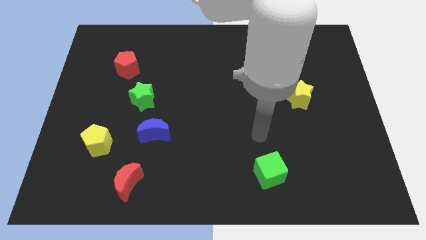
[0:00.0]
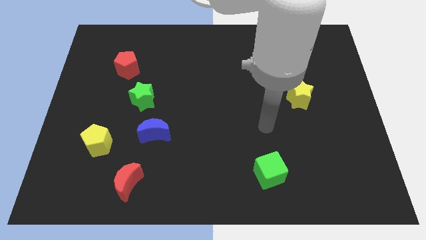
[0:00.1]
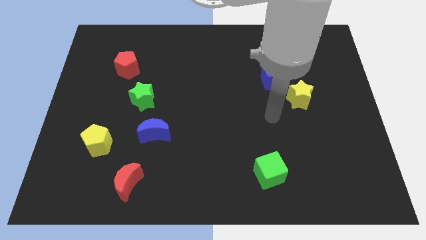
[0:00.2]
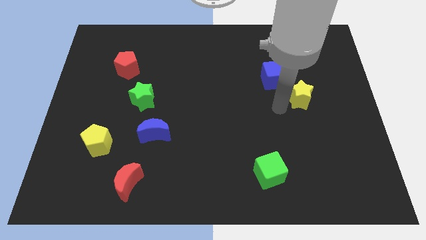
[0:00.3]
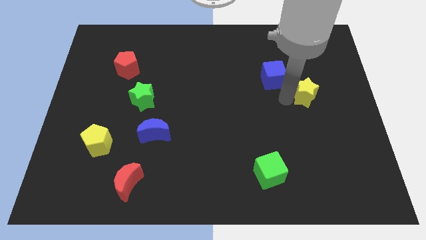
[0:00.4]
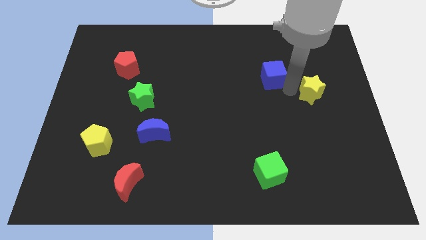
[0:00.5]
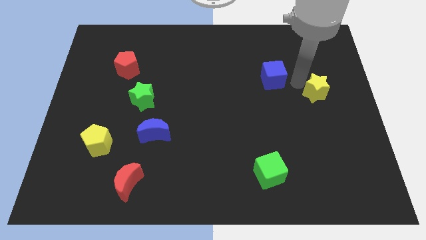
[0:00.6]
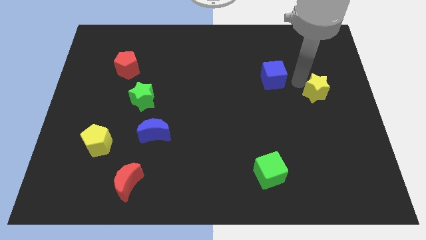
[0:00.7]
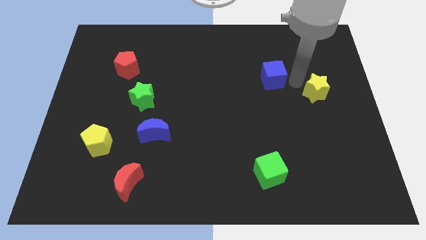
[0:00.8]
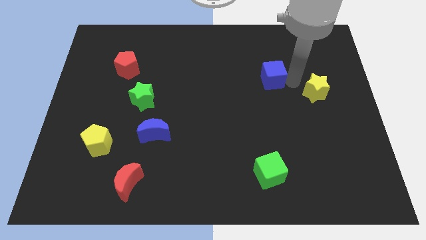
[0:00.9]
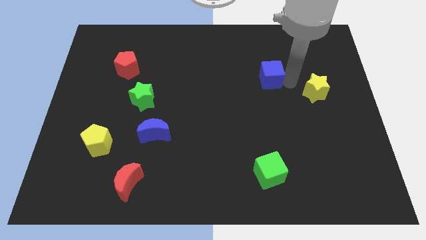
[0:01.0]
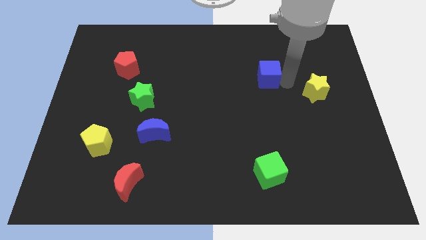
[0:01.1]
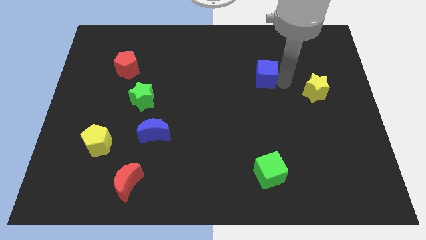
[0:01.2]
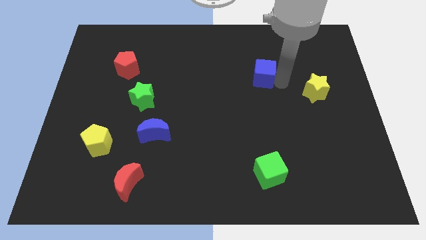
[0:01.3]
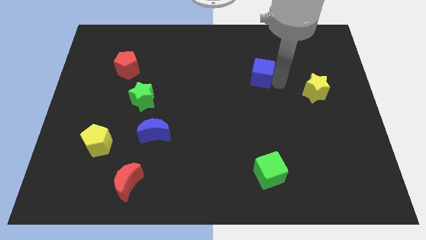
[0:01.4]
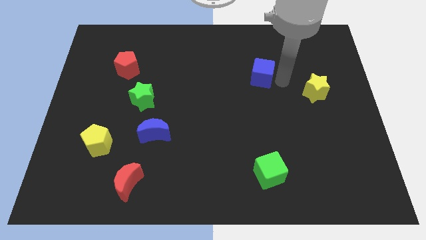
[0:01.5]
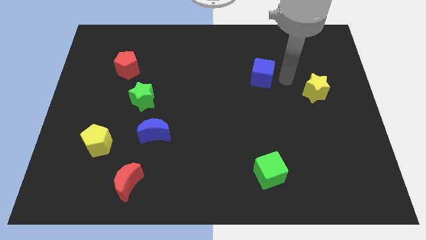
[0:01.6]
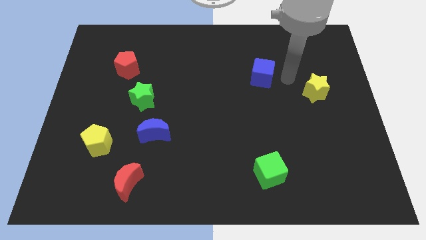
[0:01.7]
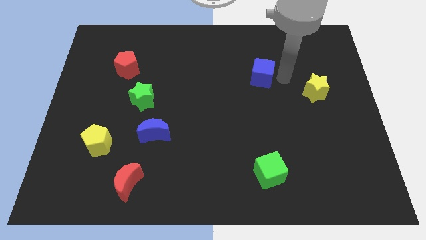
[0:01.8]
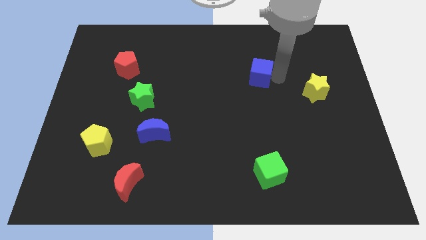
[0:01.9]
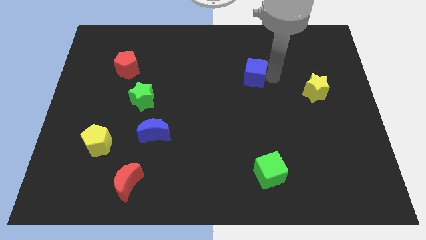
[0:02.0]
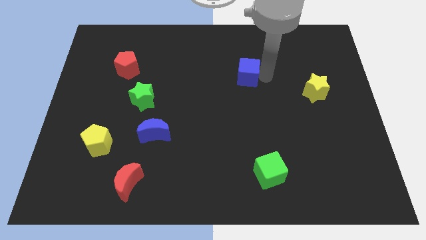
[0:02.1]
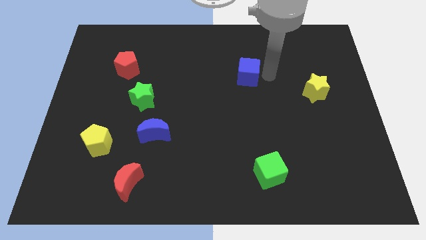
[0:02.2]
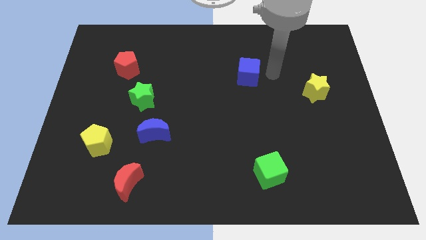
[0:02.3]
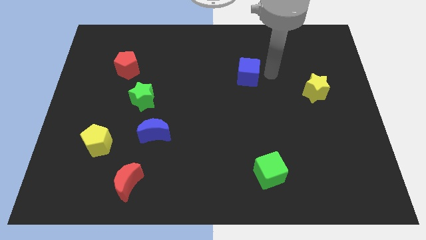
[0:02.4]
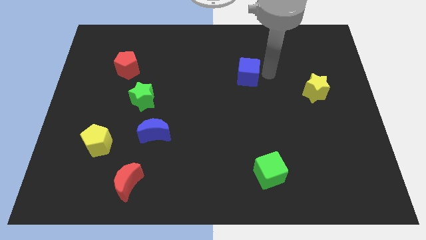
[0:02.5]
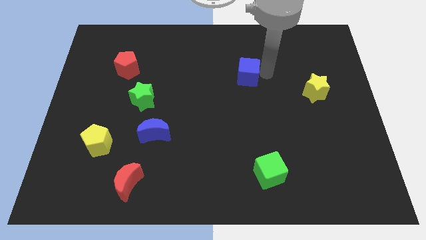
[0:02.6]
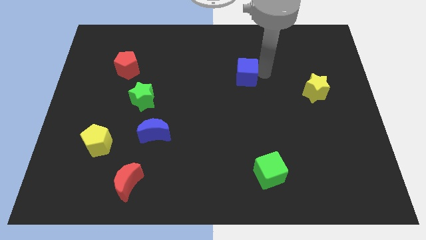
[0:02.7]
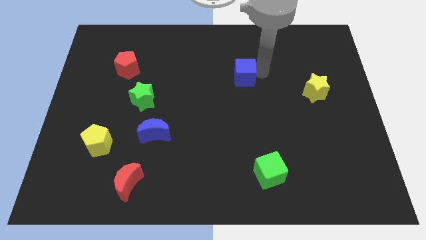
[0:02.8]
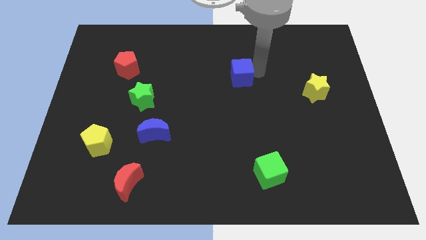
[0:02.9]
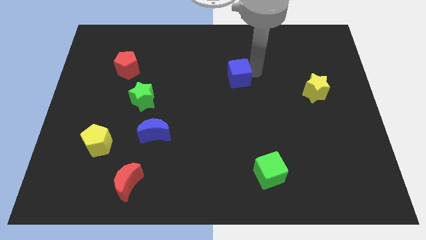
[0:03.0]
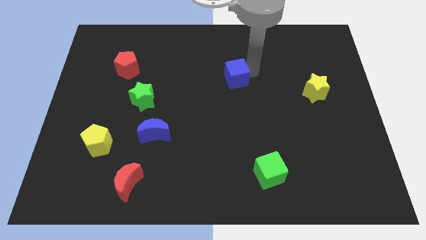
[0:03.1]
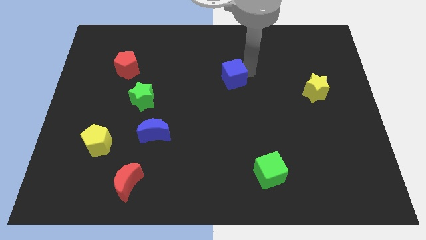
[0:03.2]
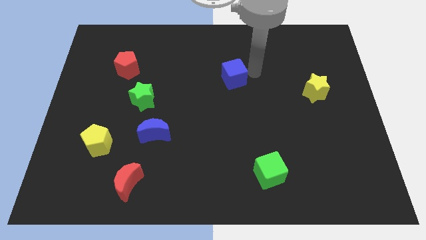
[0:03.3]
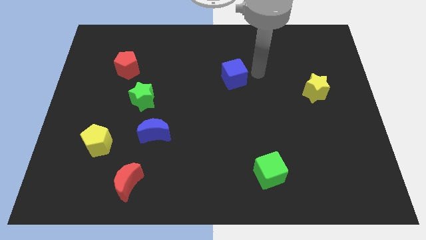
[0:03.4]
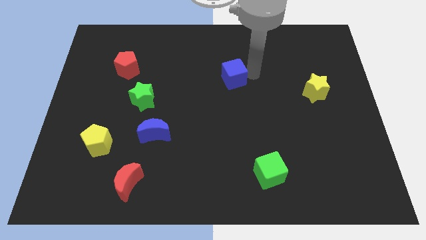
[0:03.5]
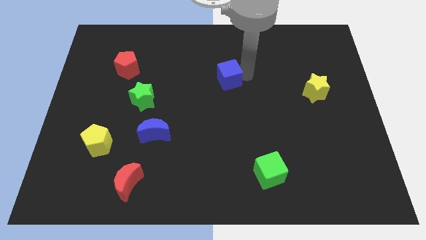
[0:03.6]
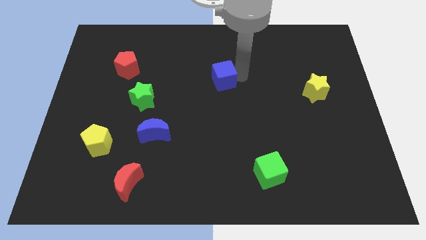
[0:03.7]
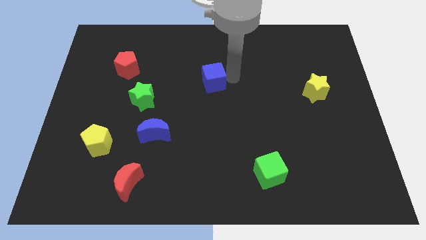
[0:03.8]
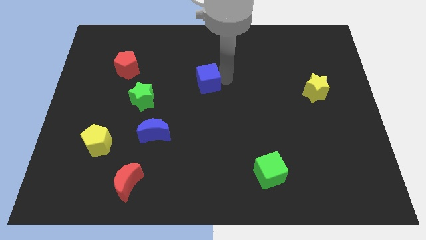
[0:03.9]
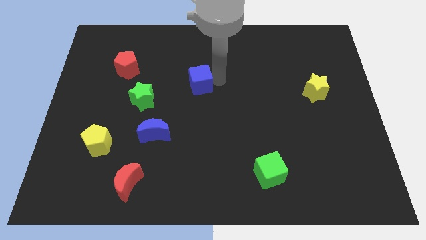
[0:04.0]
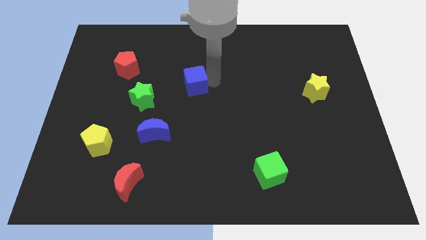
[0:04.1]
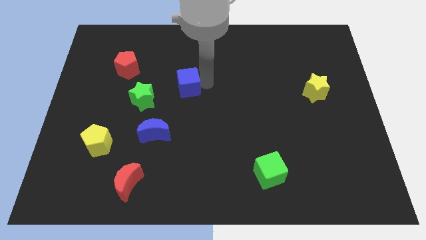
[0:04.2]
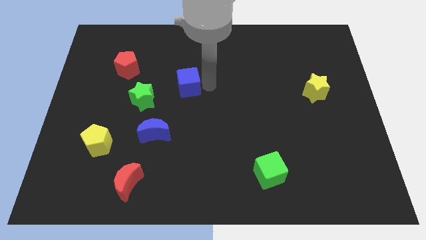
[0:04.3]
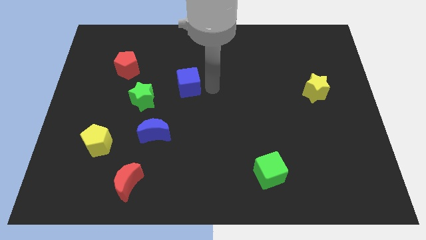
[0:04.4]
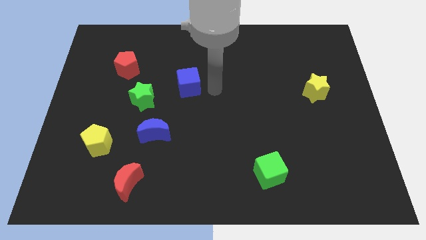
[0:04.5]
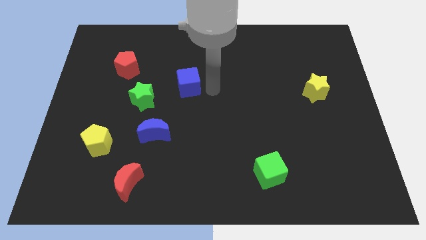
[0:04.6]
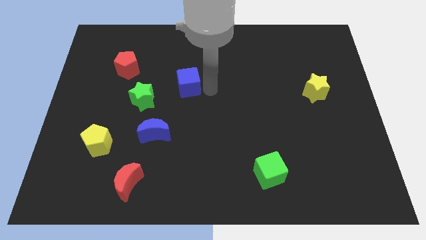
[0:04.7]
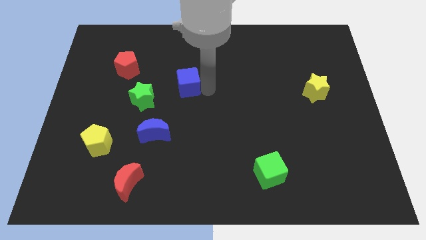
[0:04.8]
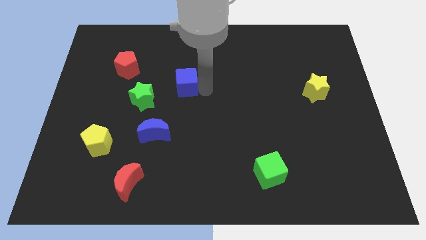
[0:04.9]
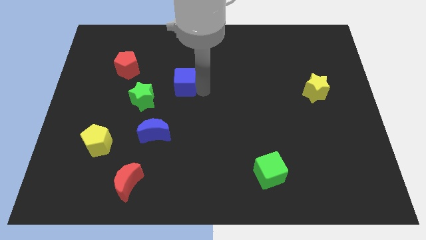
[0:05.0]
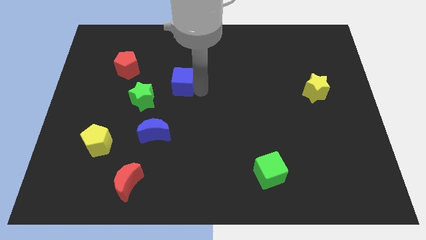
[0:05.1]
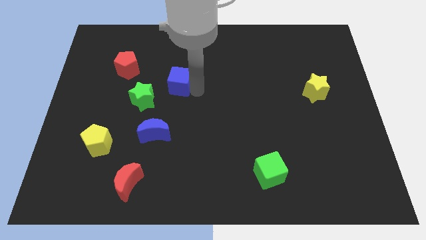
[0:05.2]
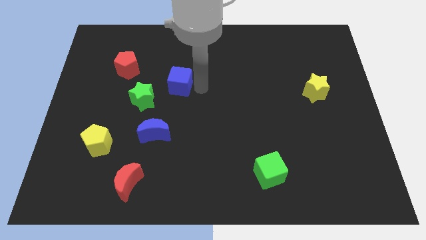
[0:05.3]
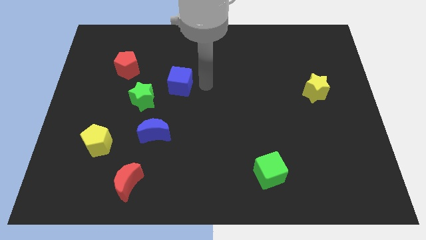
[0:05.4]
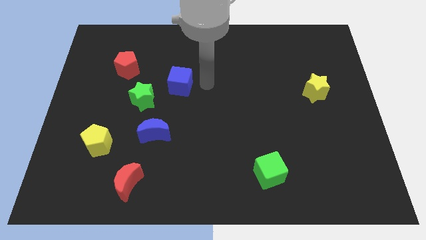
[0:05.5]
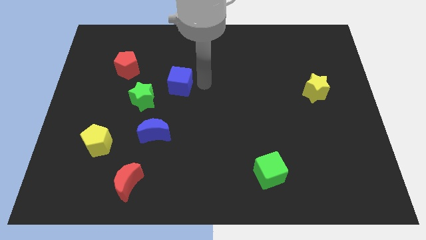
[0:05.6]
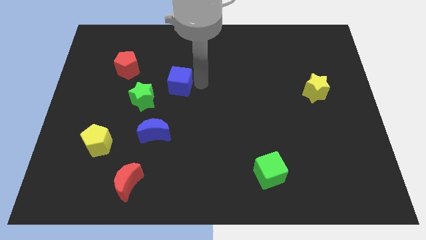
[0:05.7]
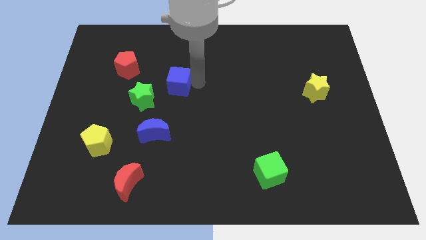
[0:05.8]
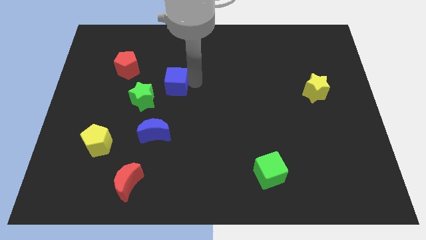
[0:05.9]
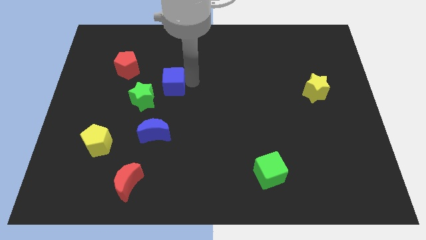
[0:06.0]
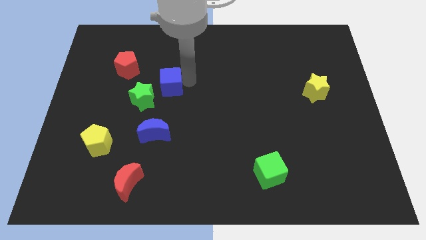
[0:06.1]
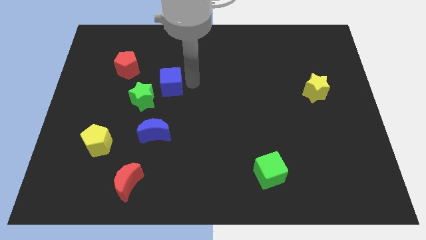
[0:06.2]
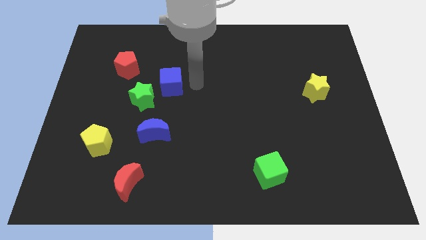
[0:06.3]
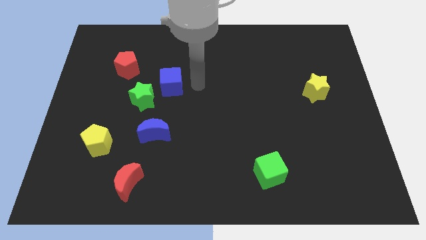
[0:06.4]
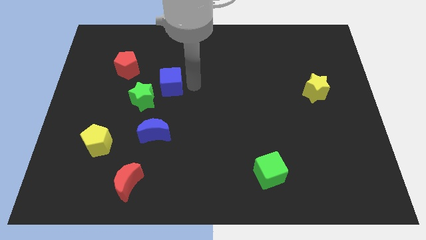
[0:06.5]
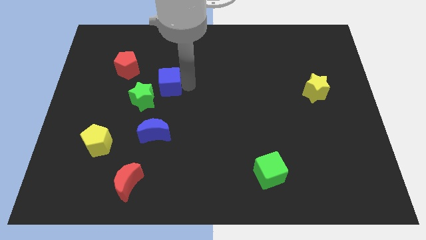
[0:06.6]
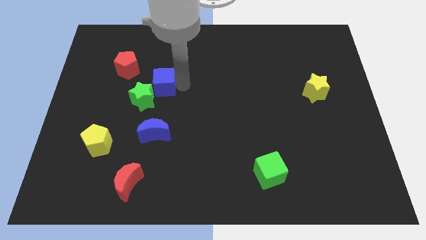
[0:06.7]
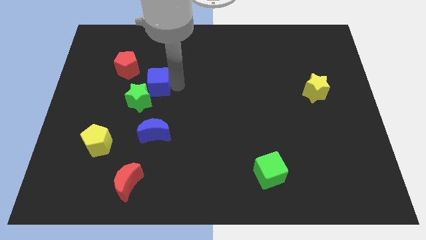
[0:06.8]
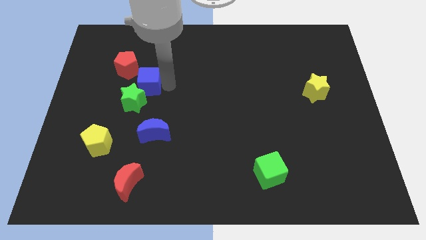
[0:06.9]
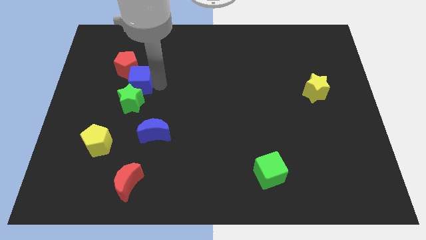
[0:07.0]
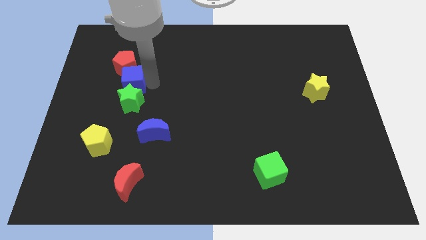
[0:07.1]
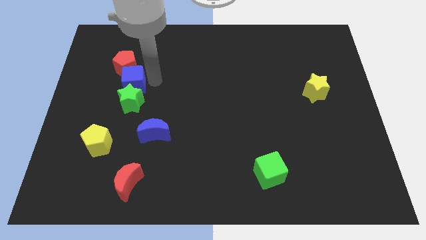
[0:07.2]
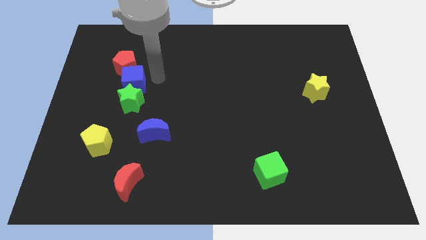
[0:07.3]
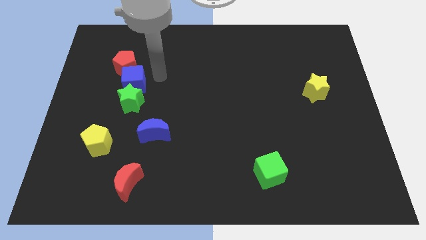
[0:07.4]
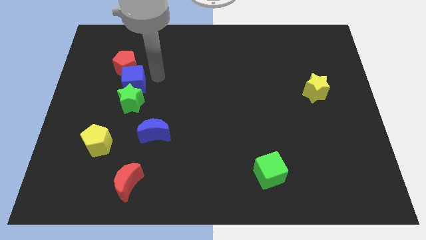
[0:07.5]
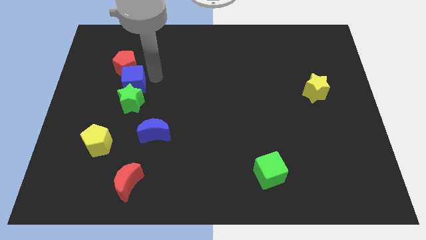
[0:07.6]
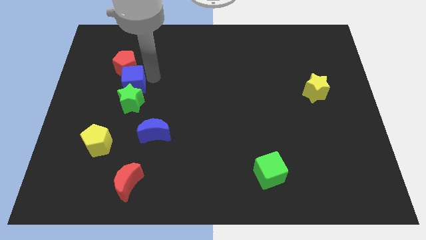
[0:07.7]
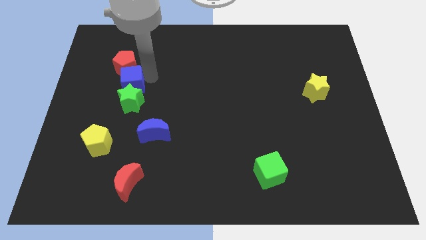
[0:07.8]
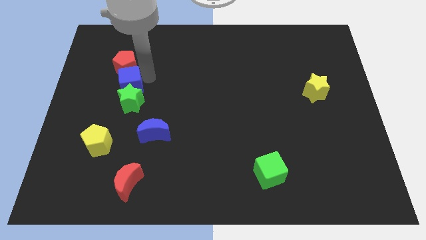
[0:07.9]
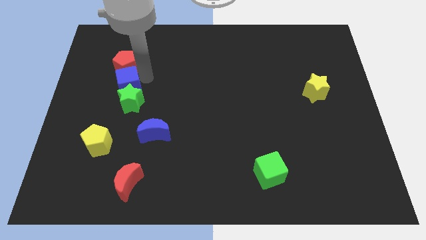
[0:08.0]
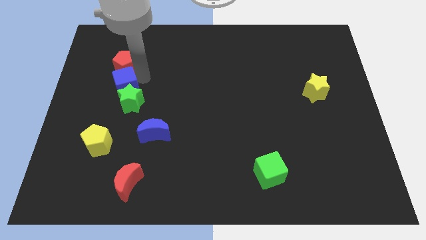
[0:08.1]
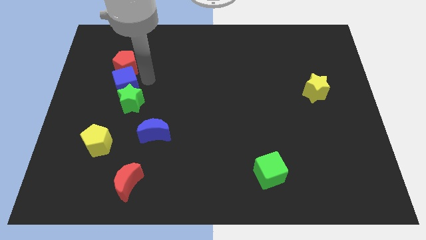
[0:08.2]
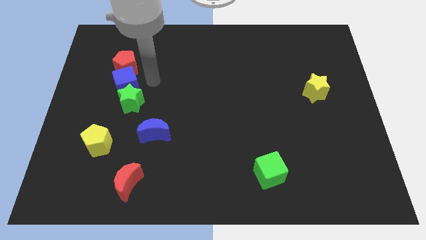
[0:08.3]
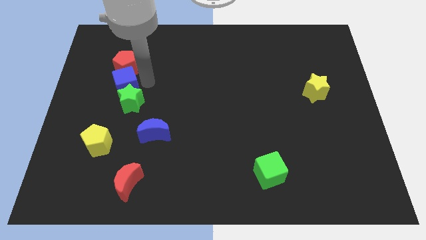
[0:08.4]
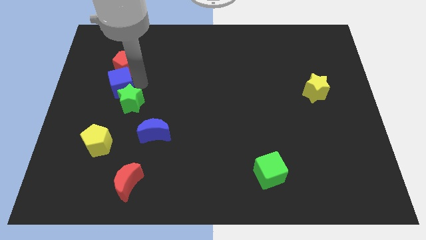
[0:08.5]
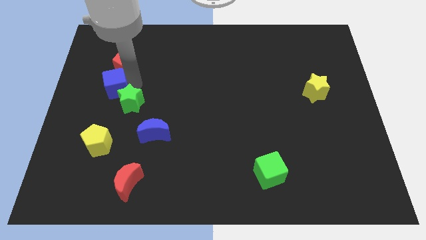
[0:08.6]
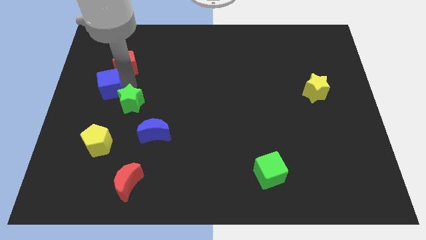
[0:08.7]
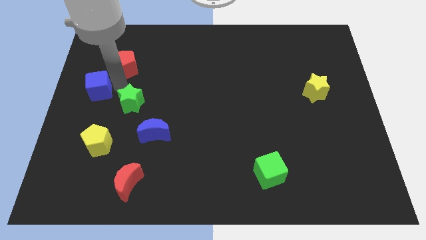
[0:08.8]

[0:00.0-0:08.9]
push the blue cube to the left side
